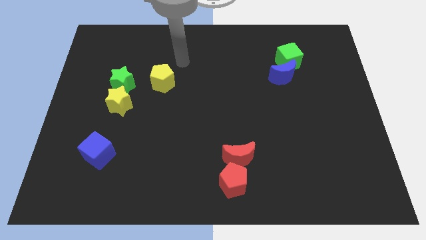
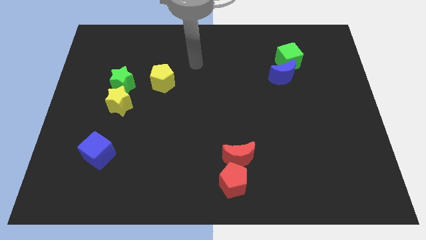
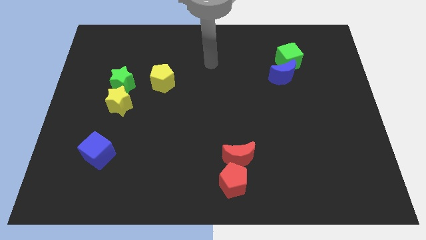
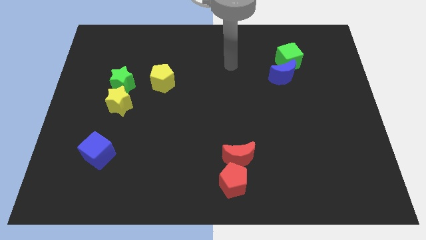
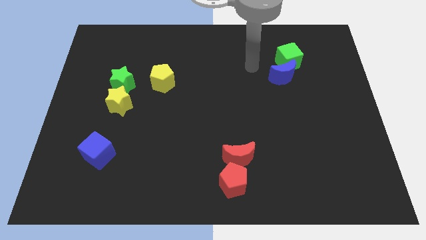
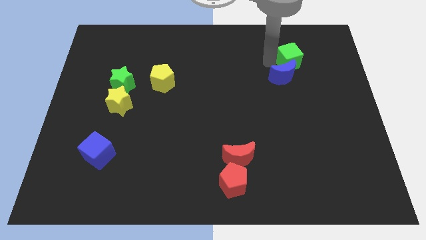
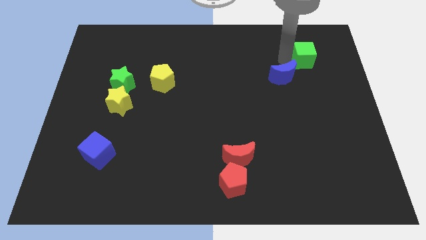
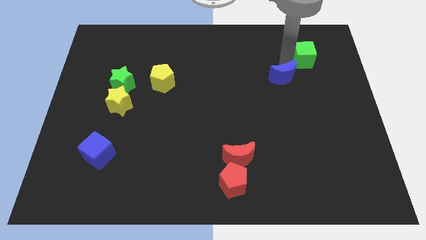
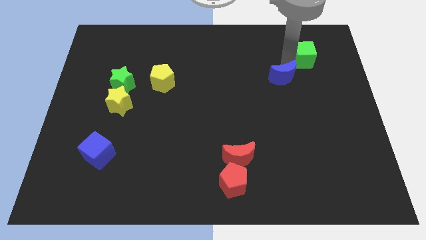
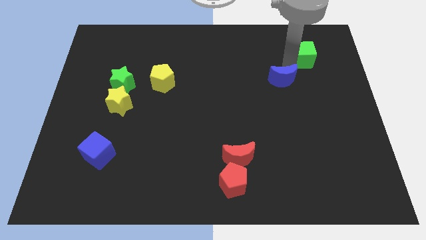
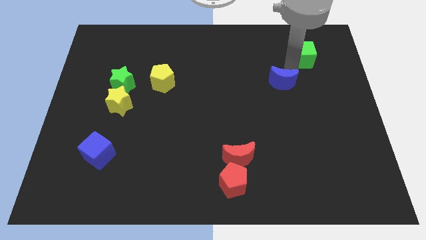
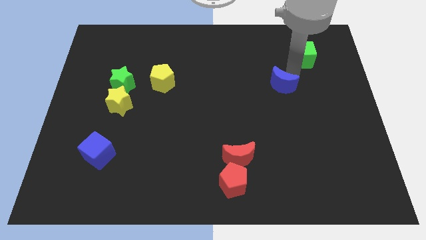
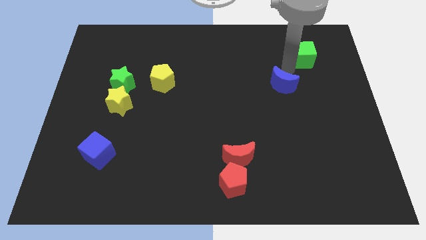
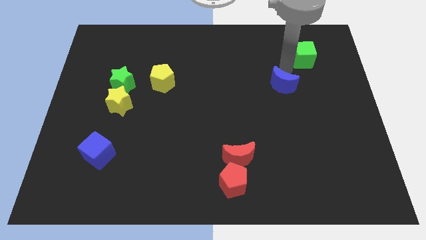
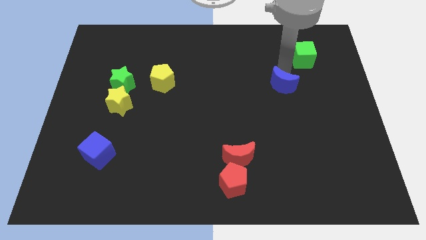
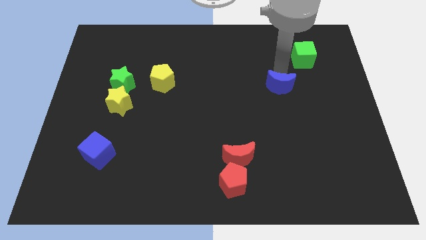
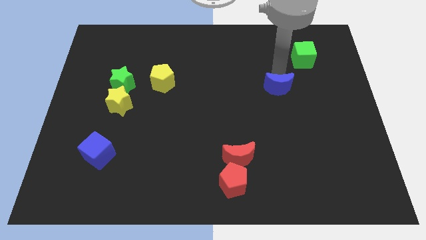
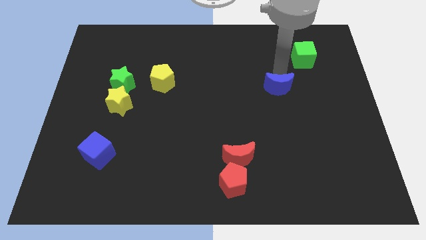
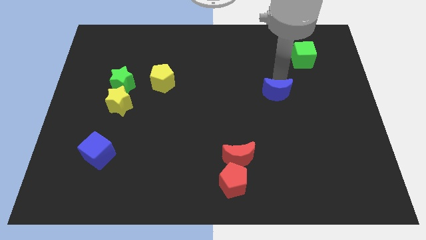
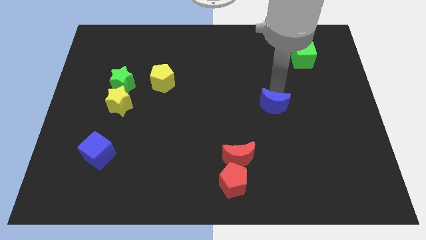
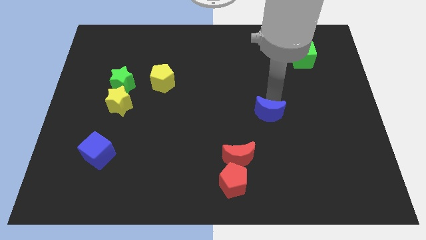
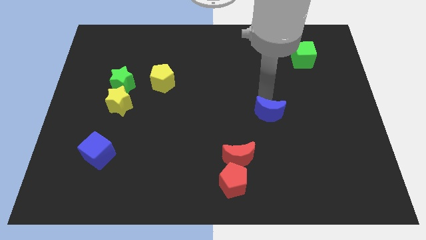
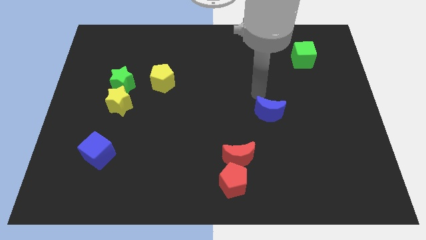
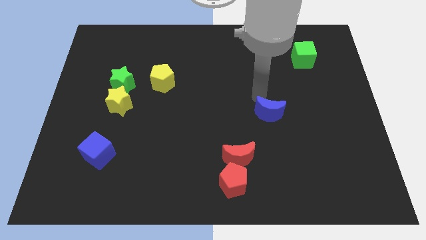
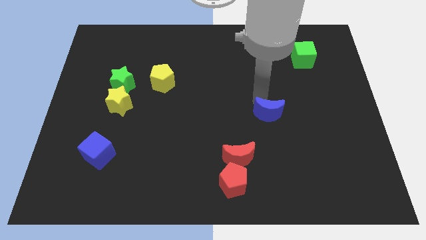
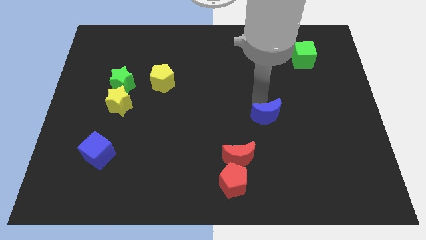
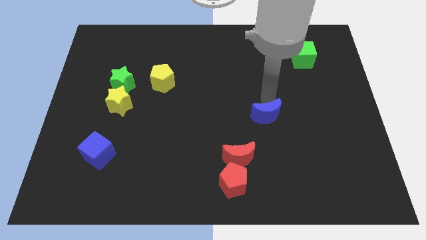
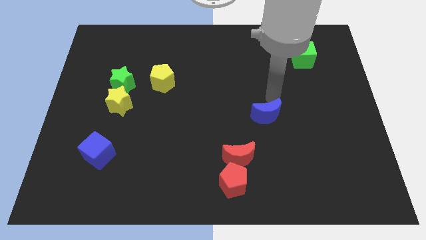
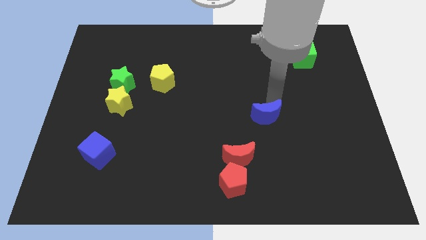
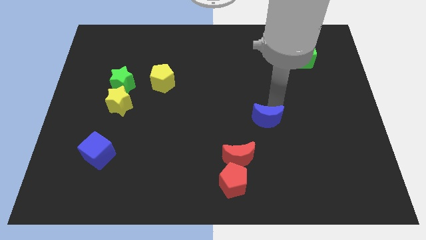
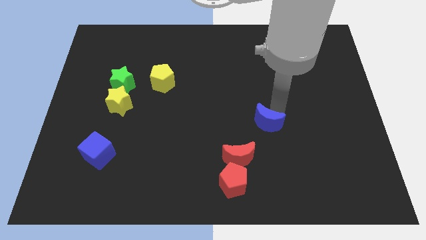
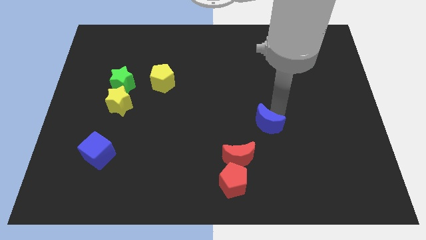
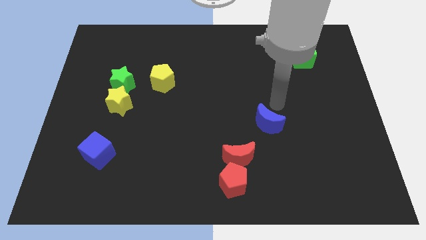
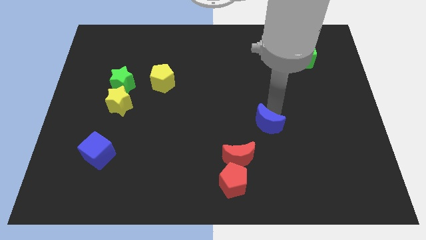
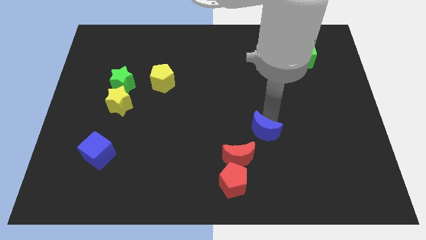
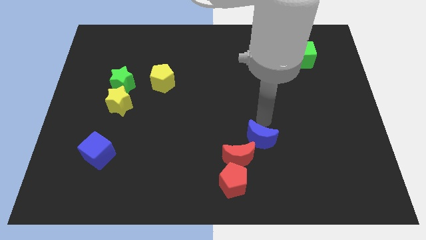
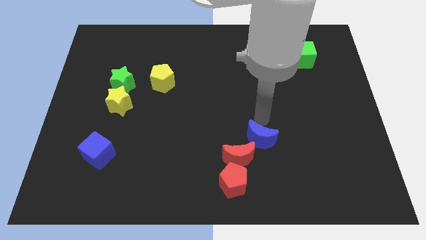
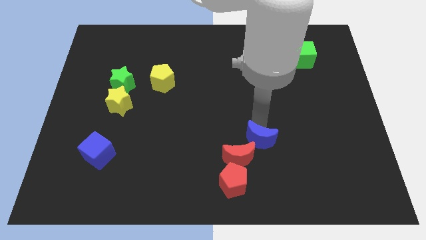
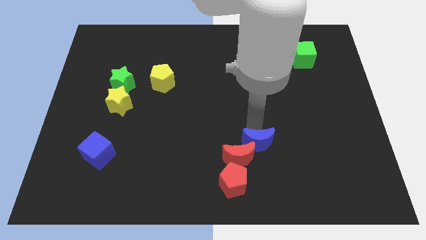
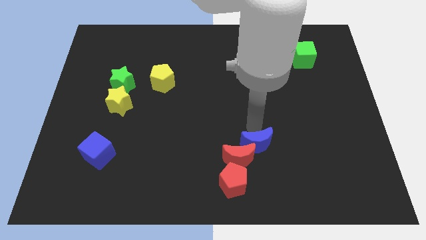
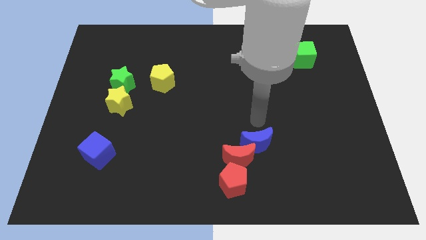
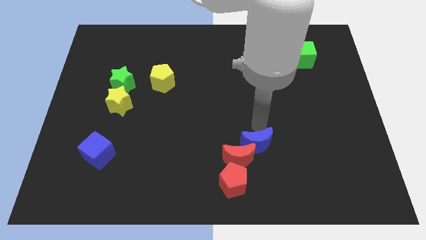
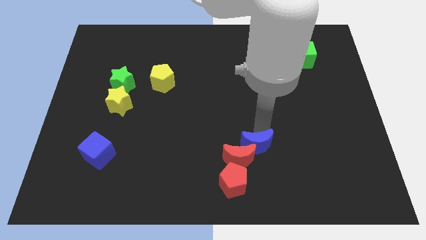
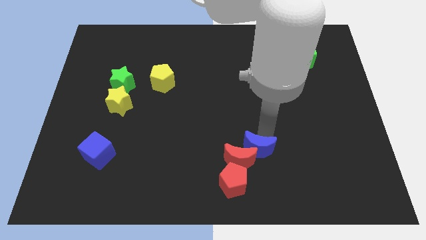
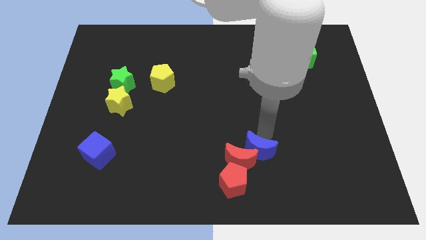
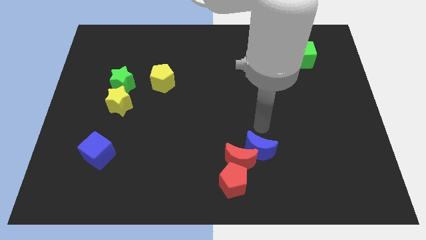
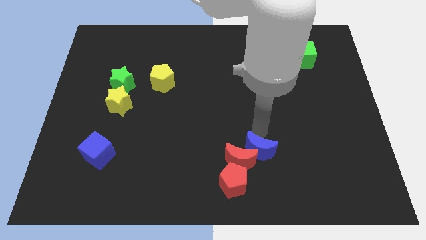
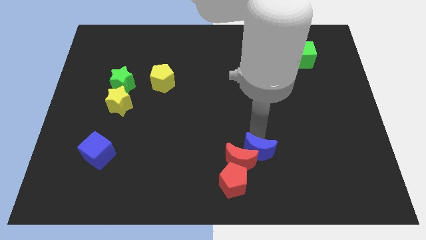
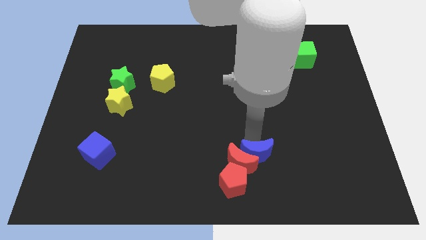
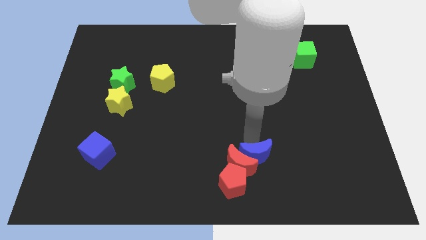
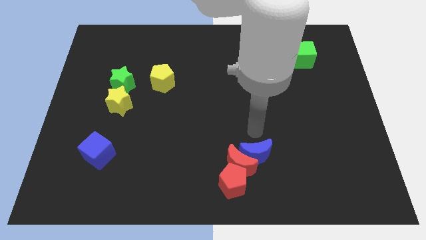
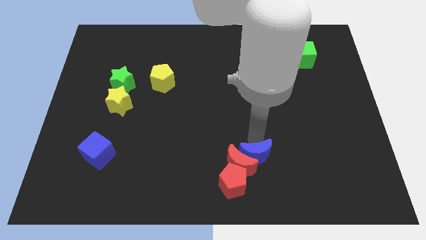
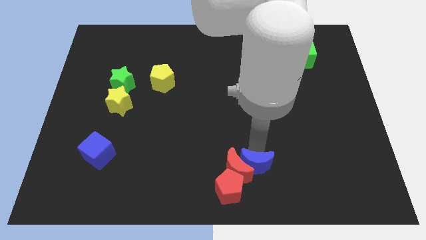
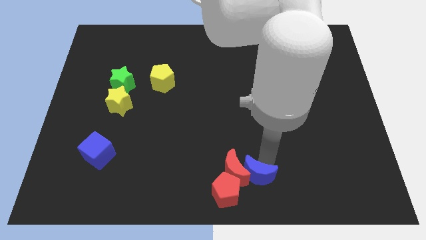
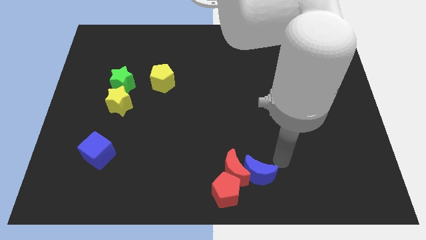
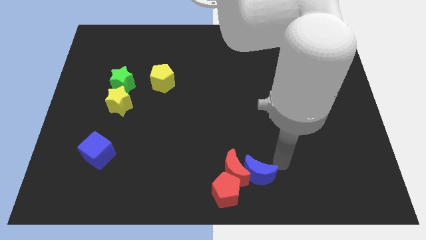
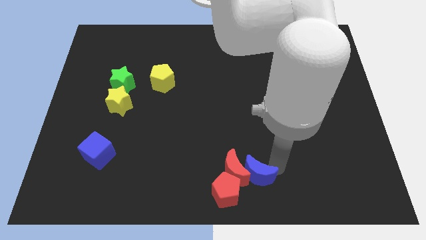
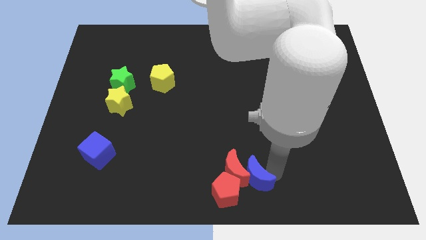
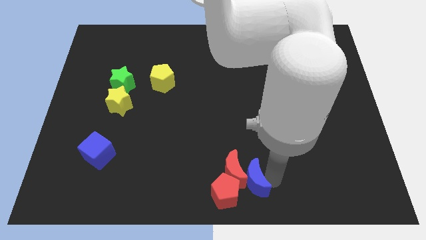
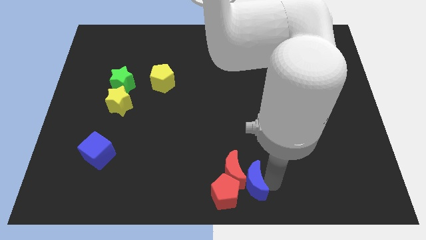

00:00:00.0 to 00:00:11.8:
slide the blue moon close to the red pentagon
